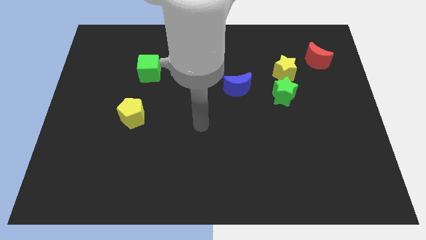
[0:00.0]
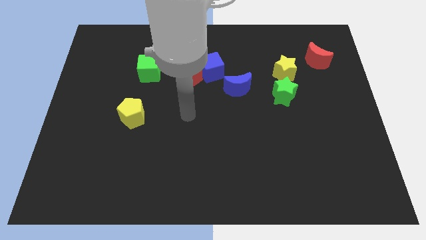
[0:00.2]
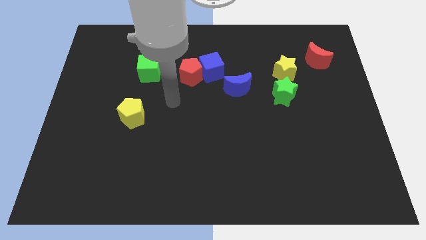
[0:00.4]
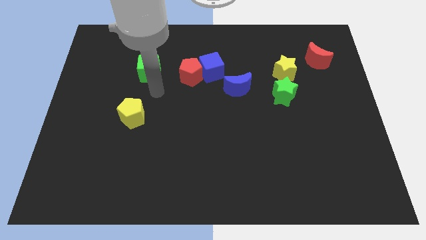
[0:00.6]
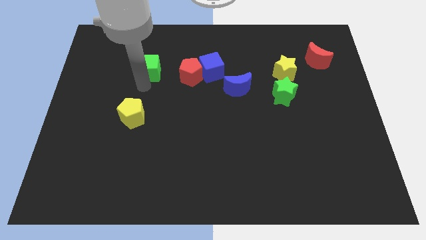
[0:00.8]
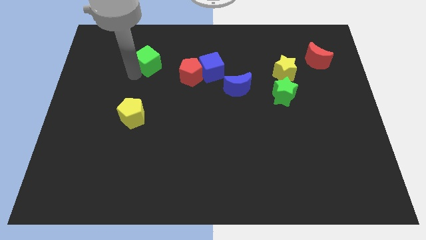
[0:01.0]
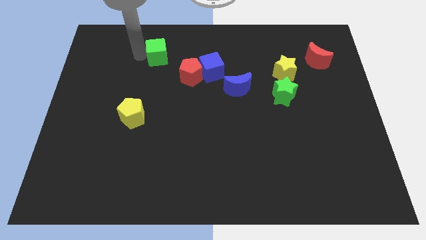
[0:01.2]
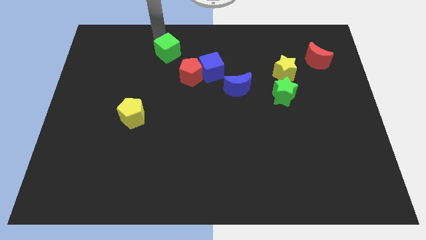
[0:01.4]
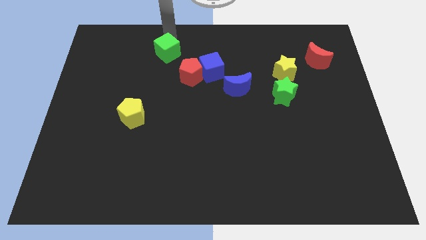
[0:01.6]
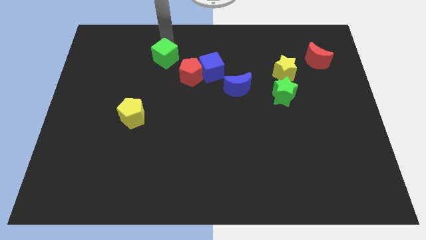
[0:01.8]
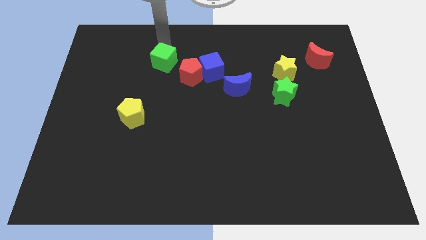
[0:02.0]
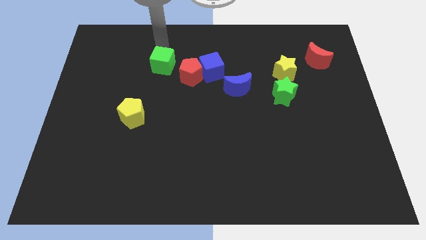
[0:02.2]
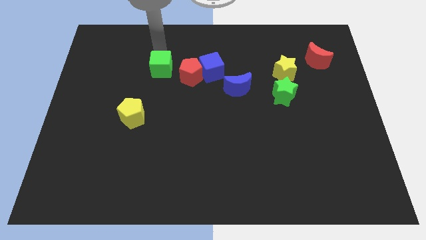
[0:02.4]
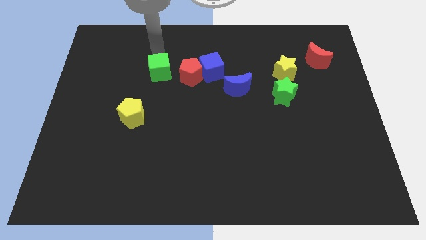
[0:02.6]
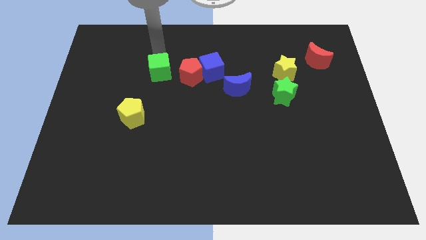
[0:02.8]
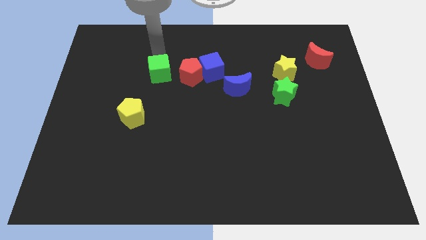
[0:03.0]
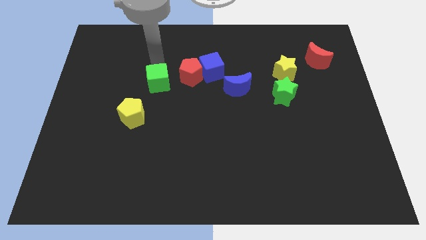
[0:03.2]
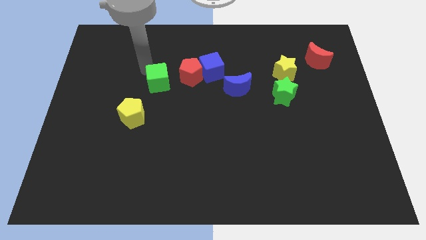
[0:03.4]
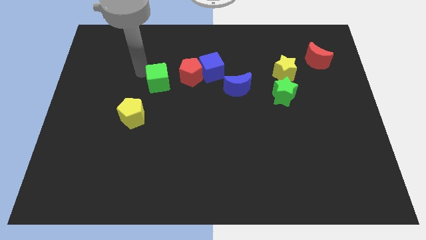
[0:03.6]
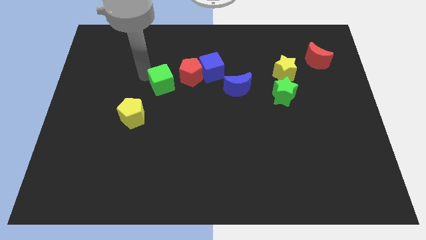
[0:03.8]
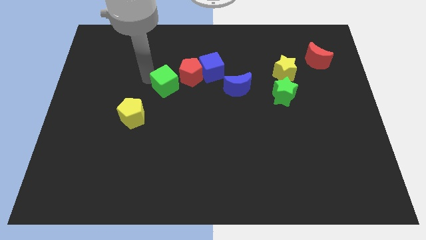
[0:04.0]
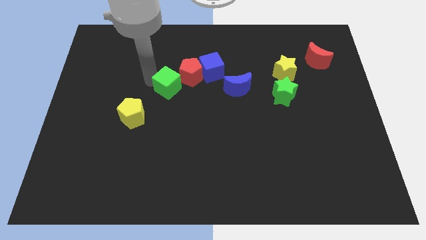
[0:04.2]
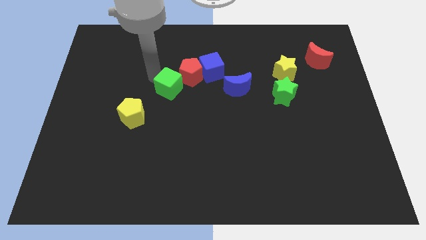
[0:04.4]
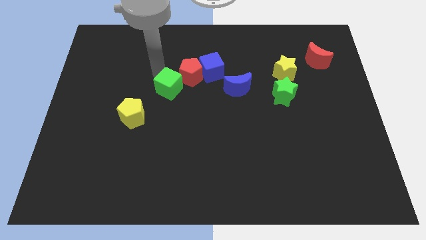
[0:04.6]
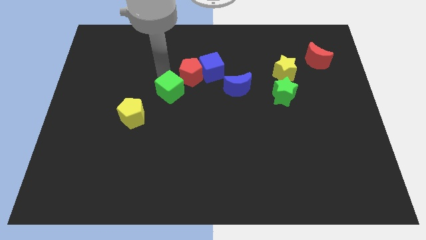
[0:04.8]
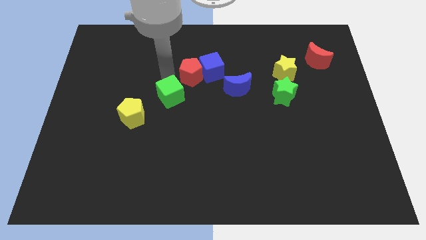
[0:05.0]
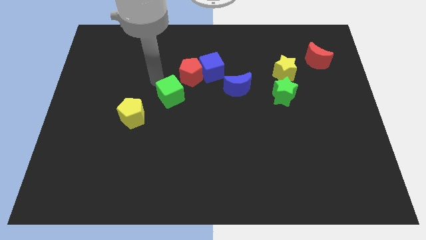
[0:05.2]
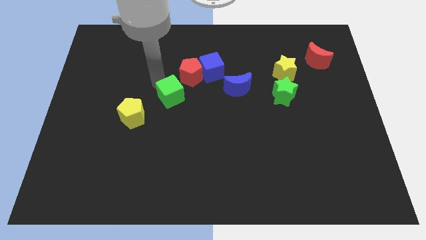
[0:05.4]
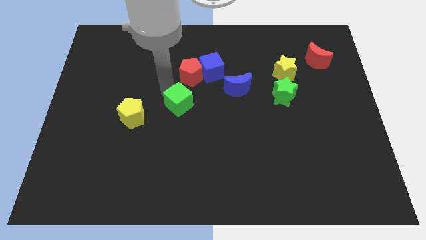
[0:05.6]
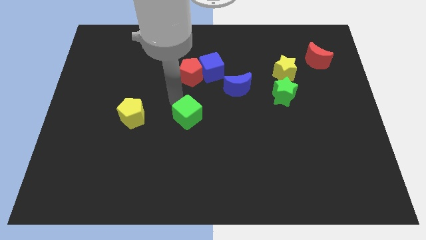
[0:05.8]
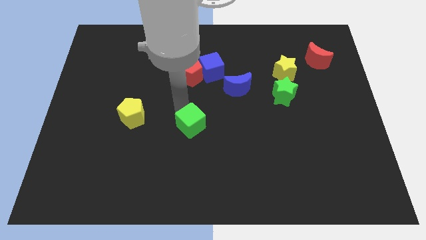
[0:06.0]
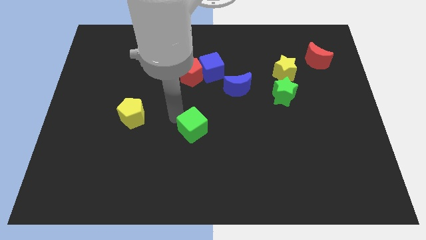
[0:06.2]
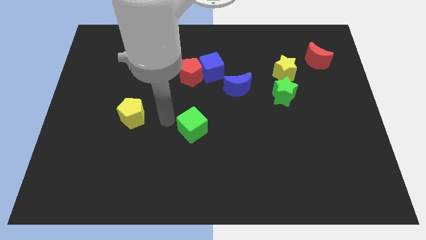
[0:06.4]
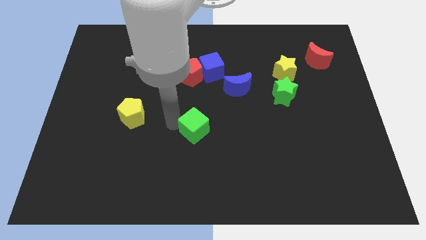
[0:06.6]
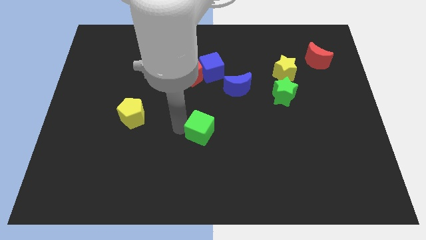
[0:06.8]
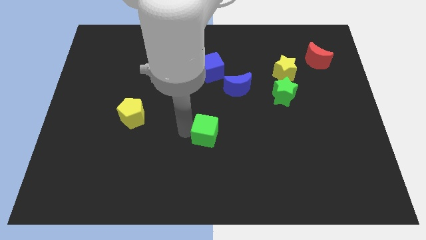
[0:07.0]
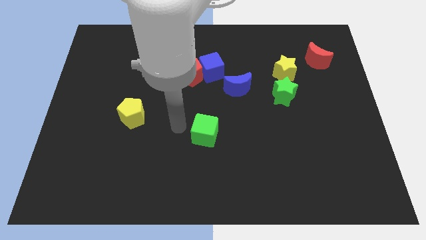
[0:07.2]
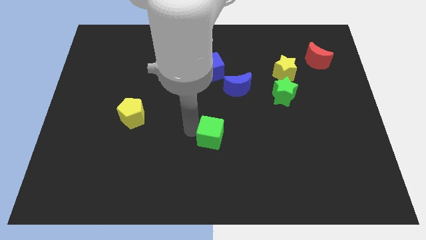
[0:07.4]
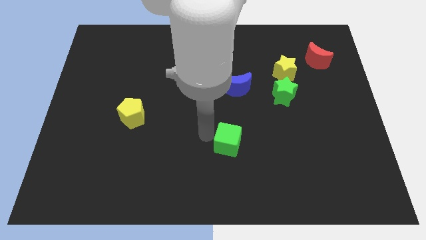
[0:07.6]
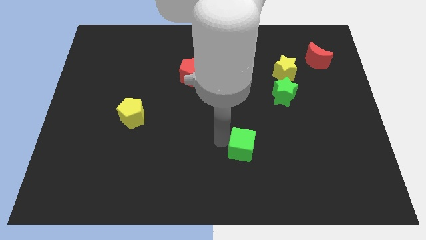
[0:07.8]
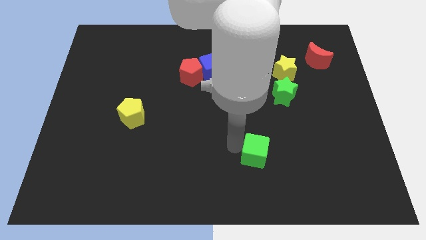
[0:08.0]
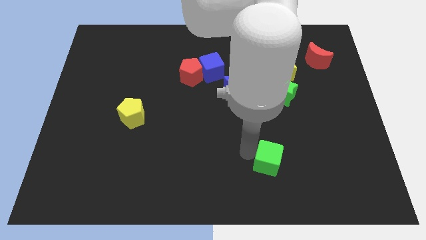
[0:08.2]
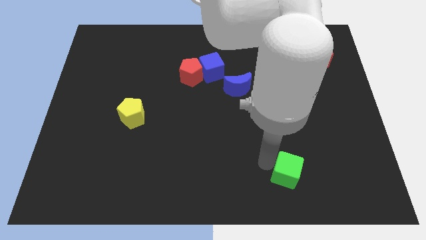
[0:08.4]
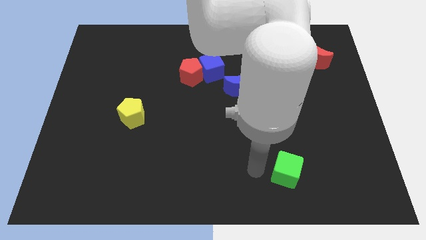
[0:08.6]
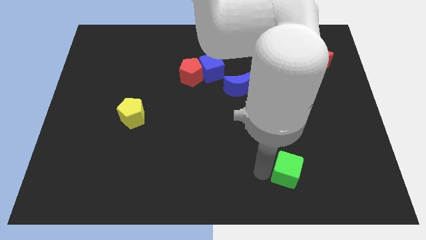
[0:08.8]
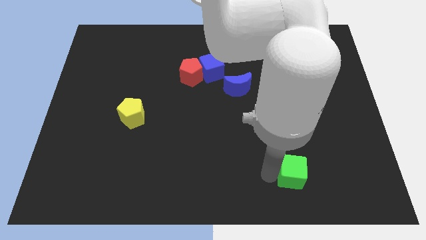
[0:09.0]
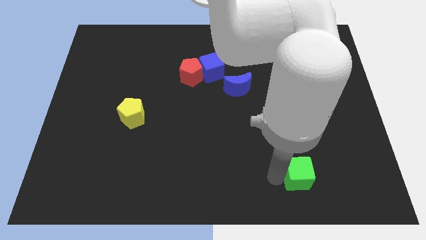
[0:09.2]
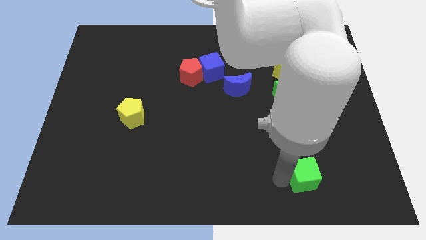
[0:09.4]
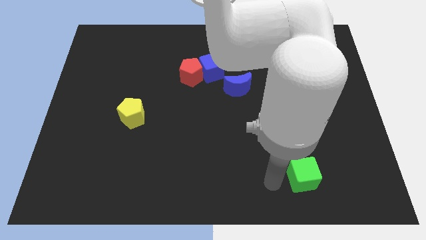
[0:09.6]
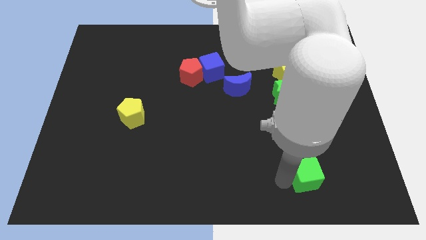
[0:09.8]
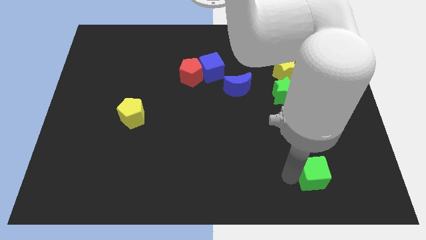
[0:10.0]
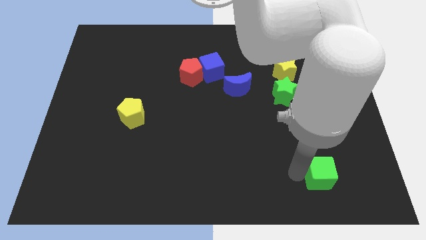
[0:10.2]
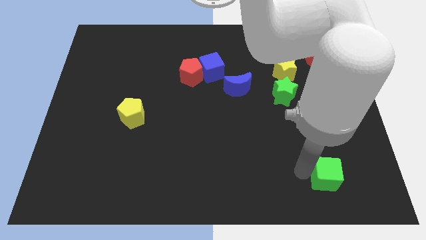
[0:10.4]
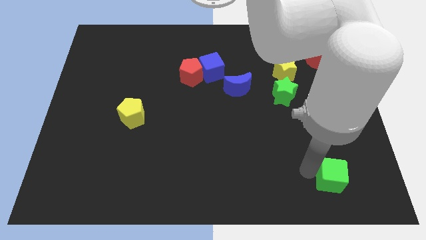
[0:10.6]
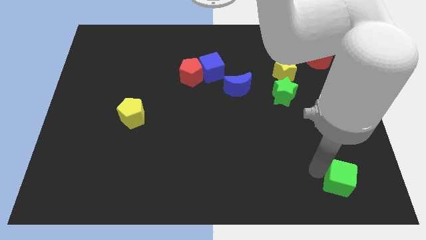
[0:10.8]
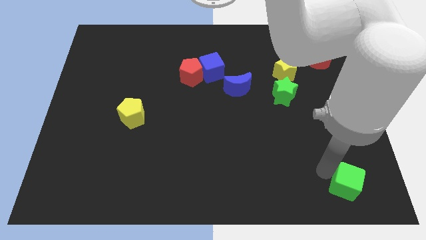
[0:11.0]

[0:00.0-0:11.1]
move the green cube to the bottom right

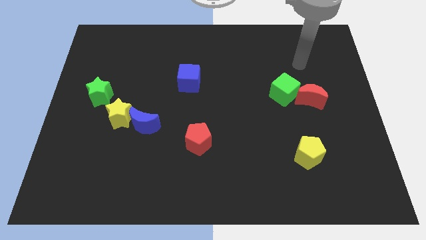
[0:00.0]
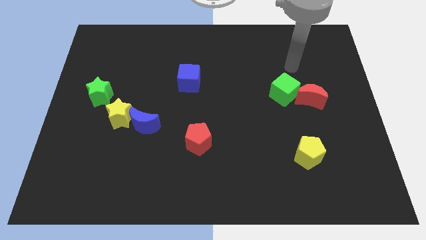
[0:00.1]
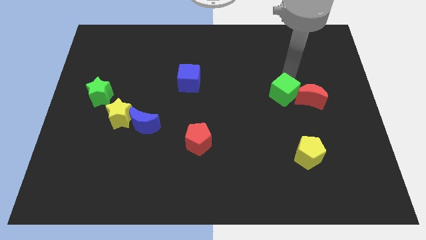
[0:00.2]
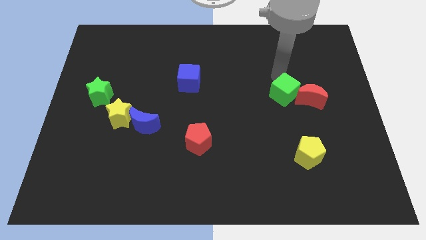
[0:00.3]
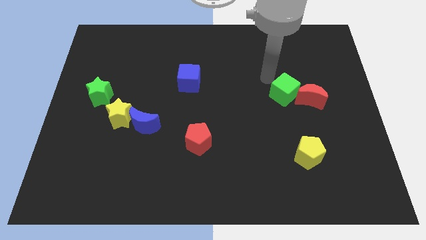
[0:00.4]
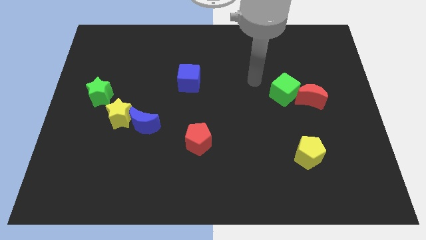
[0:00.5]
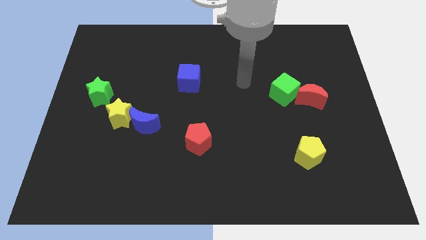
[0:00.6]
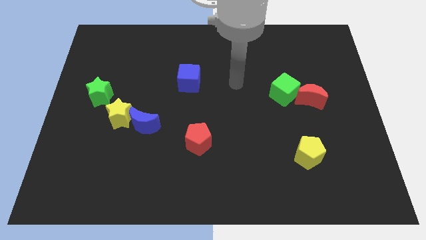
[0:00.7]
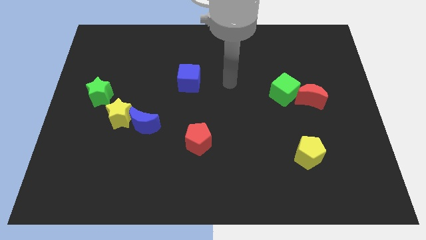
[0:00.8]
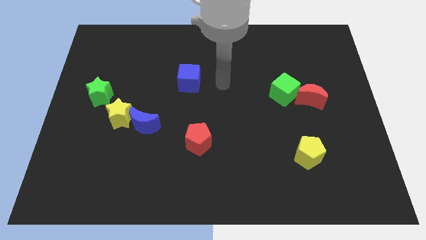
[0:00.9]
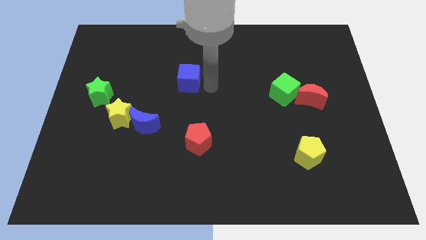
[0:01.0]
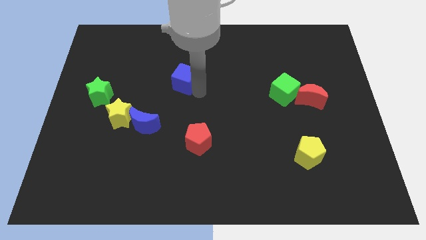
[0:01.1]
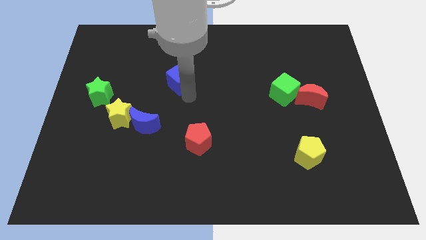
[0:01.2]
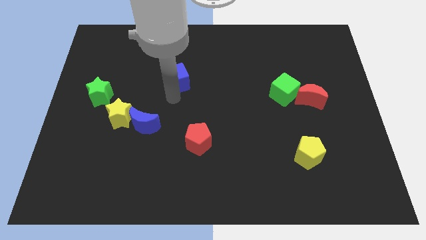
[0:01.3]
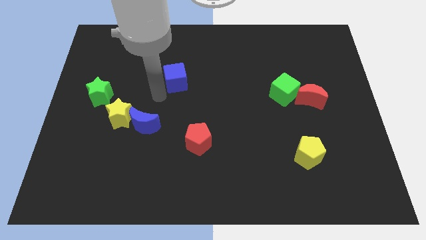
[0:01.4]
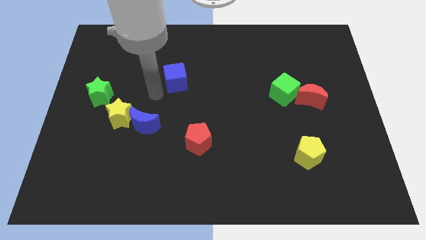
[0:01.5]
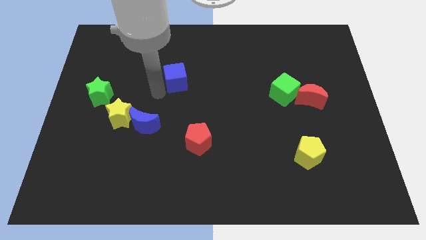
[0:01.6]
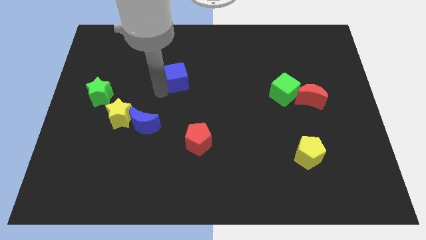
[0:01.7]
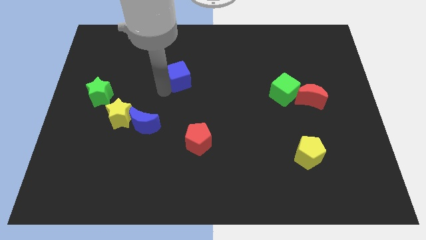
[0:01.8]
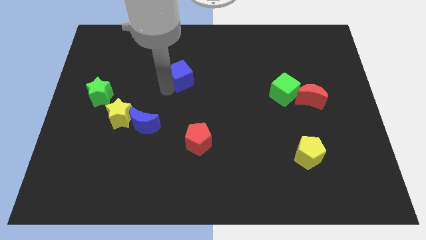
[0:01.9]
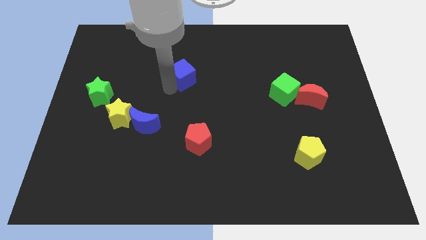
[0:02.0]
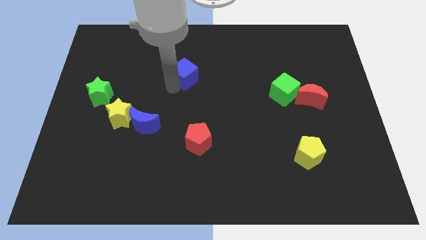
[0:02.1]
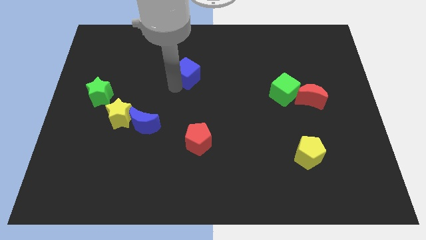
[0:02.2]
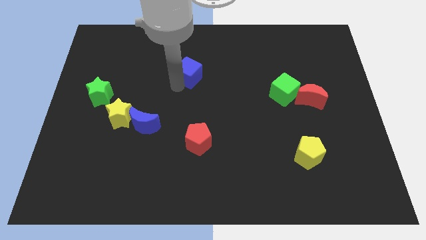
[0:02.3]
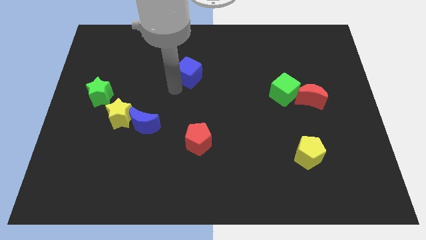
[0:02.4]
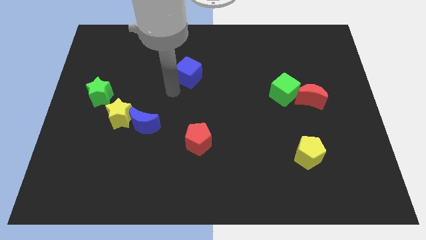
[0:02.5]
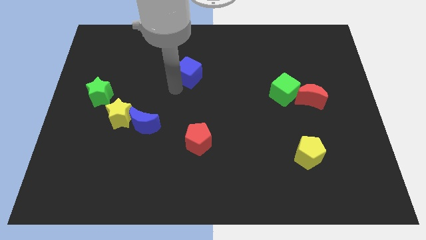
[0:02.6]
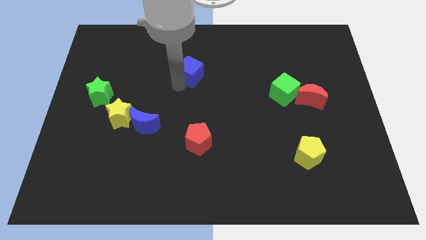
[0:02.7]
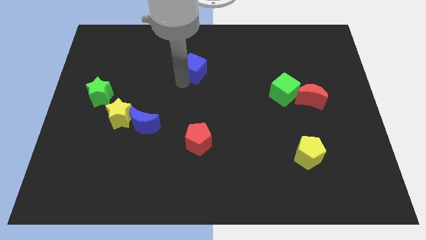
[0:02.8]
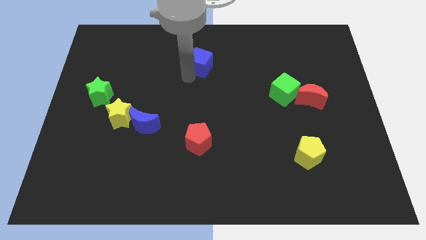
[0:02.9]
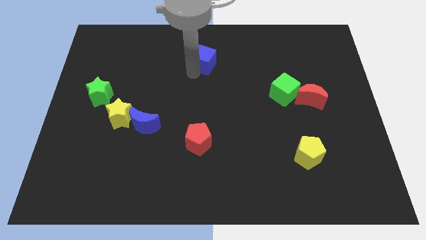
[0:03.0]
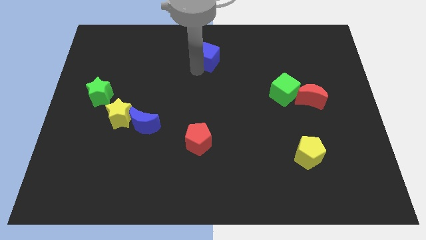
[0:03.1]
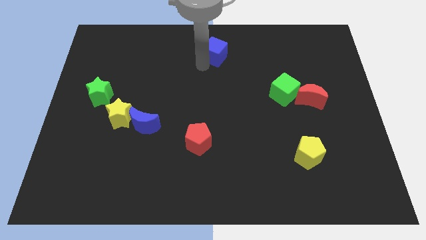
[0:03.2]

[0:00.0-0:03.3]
move the blue cube to the top side
